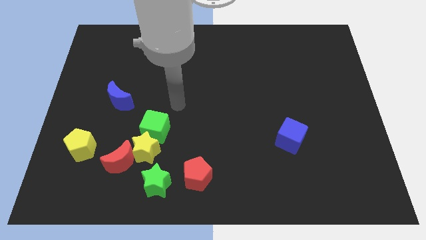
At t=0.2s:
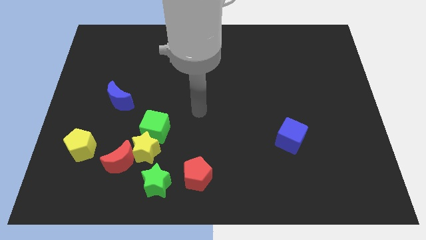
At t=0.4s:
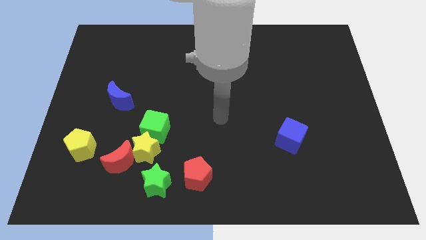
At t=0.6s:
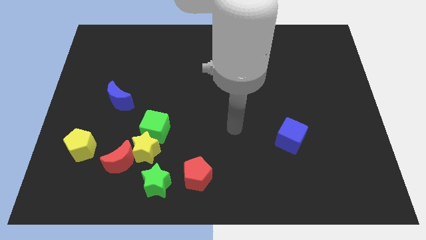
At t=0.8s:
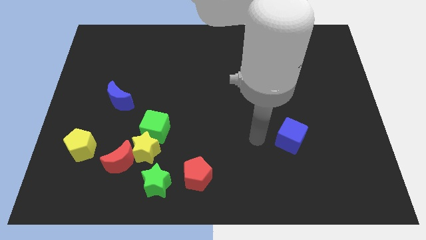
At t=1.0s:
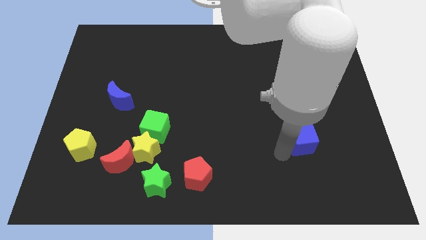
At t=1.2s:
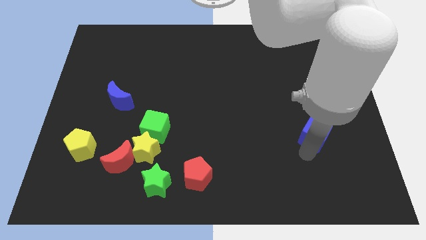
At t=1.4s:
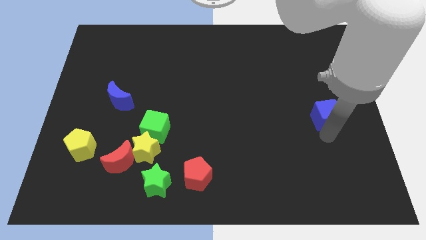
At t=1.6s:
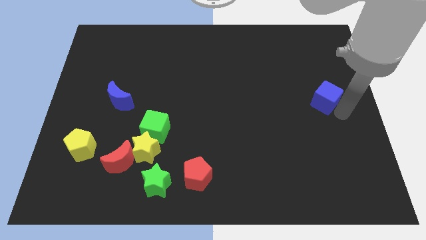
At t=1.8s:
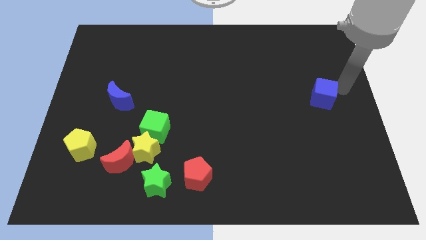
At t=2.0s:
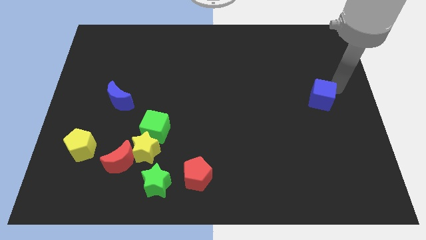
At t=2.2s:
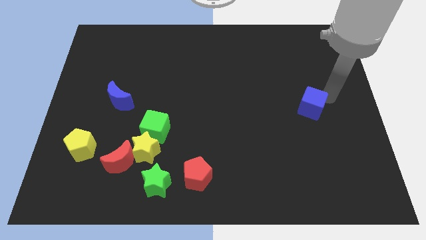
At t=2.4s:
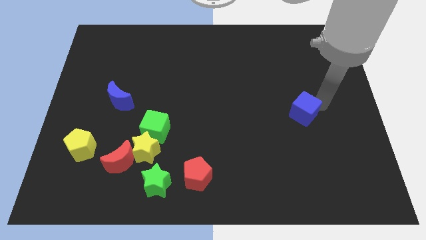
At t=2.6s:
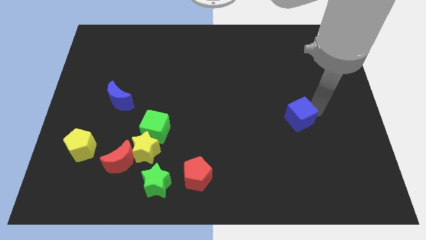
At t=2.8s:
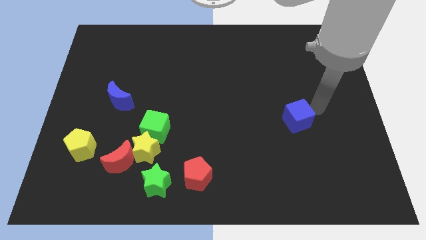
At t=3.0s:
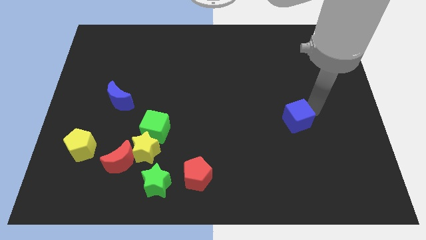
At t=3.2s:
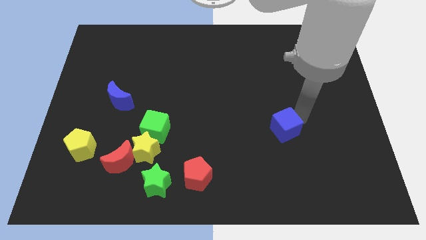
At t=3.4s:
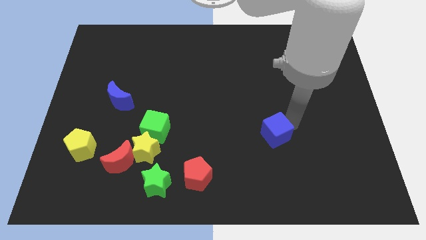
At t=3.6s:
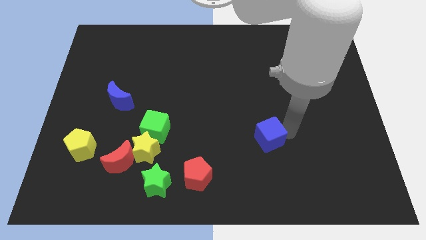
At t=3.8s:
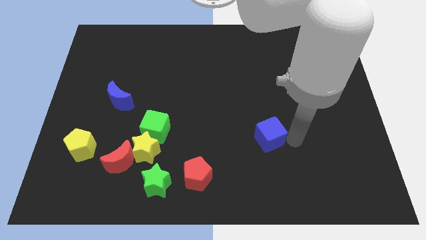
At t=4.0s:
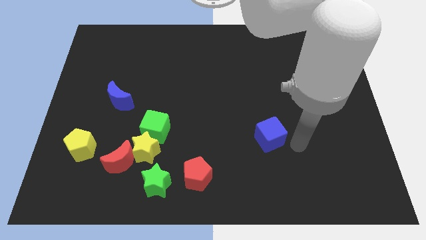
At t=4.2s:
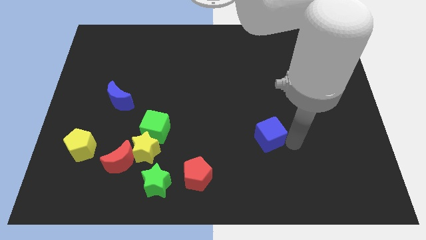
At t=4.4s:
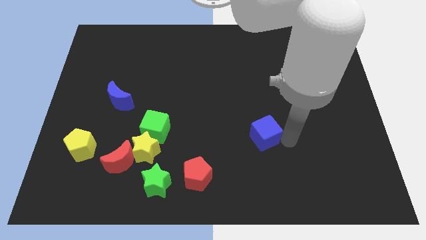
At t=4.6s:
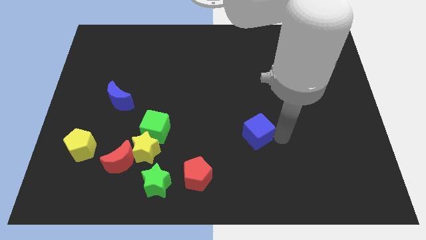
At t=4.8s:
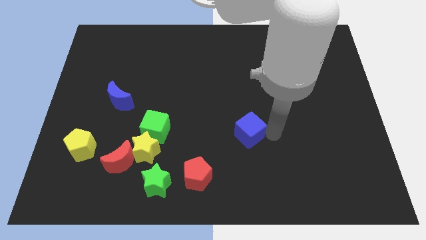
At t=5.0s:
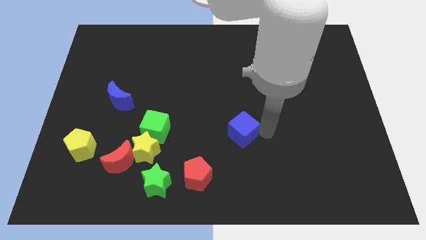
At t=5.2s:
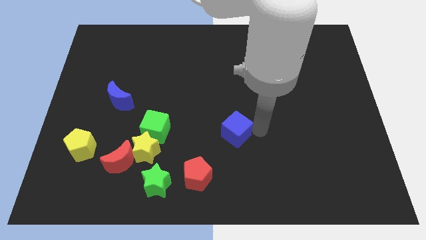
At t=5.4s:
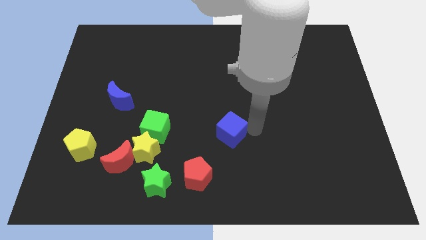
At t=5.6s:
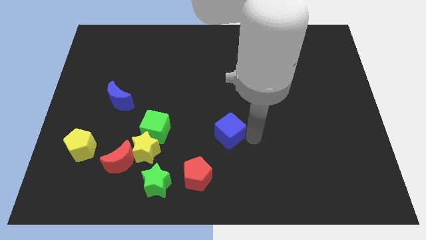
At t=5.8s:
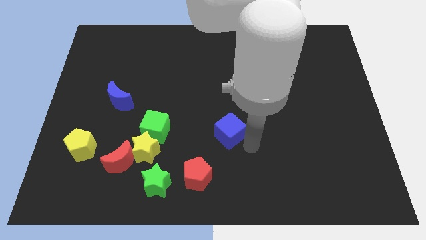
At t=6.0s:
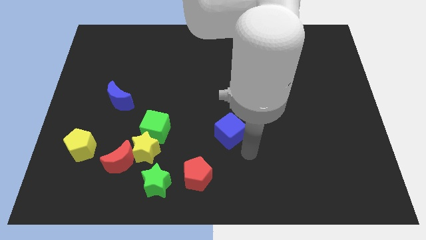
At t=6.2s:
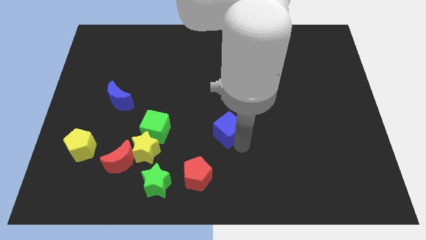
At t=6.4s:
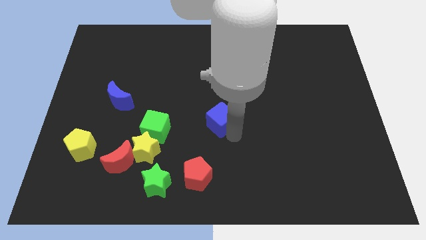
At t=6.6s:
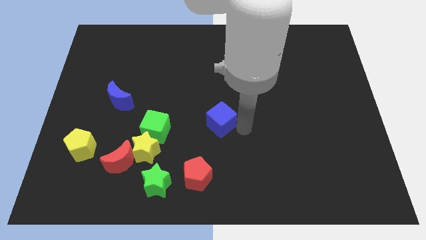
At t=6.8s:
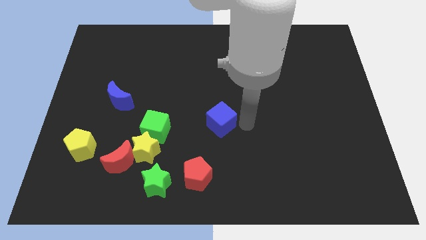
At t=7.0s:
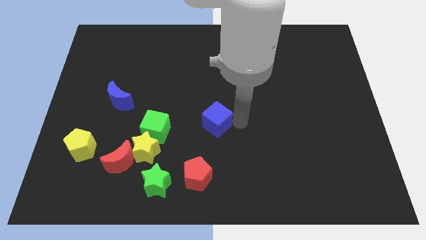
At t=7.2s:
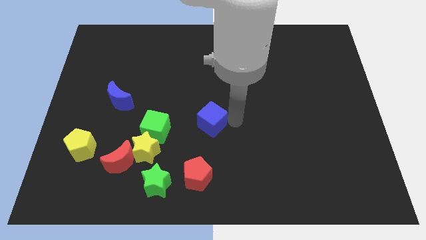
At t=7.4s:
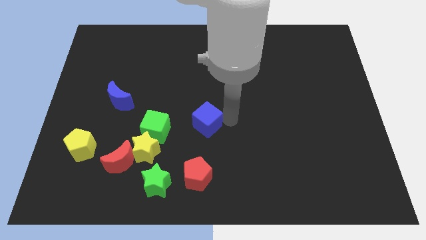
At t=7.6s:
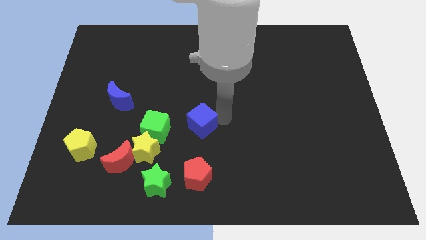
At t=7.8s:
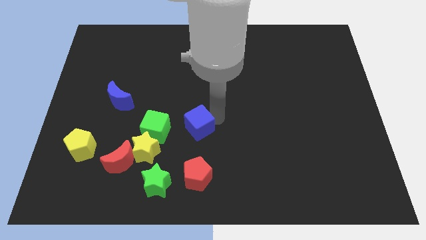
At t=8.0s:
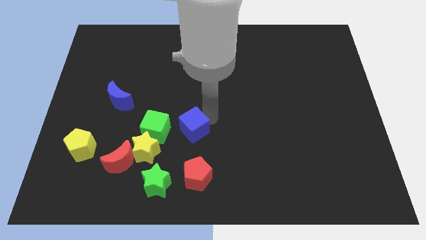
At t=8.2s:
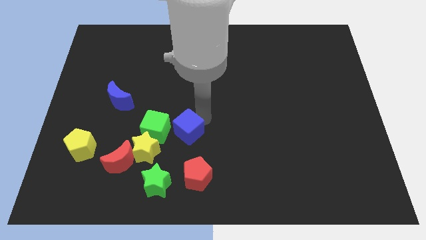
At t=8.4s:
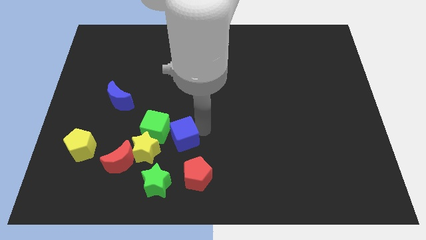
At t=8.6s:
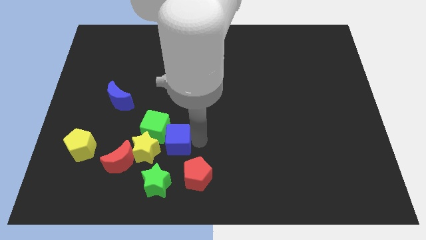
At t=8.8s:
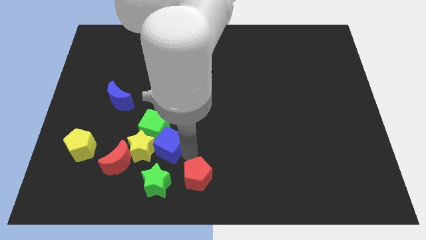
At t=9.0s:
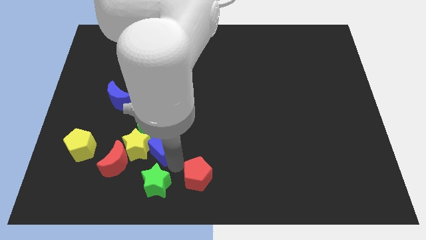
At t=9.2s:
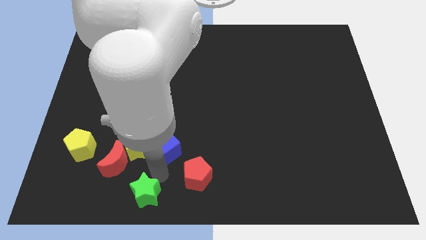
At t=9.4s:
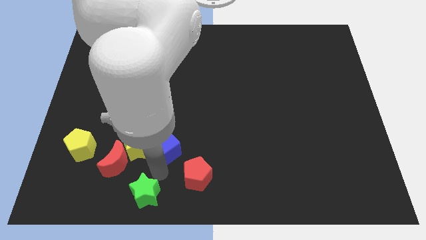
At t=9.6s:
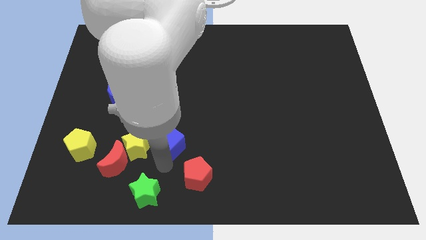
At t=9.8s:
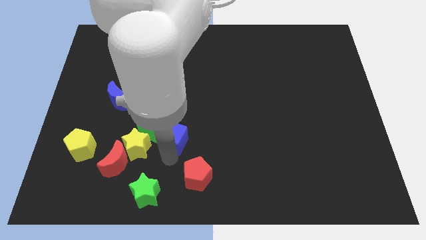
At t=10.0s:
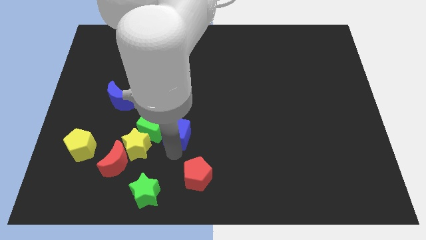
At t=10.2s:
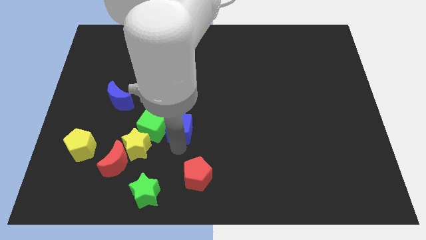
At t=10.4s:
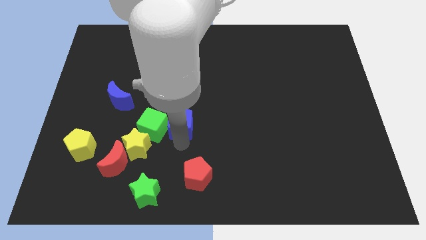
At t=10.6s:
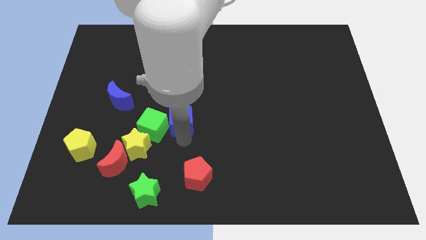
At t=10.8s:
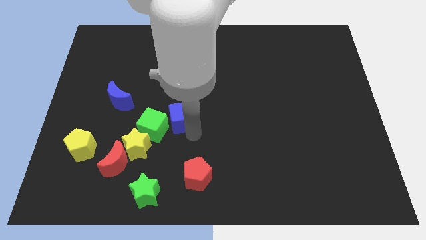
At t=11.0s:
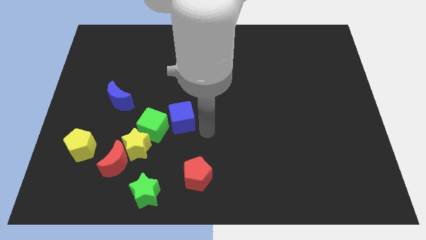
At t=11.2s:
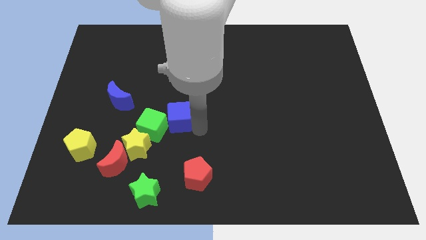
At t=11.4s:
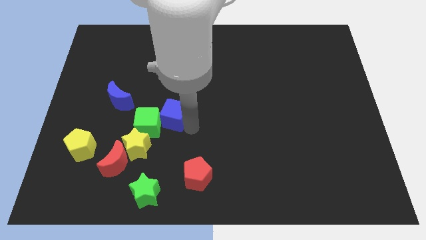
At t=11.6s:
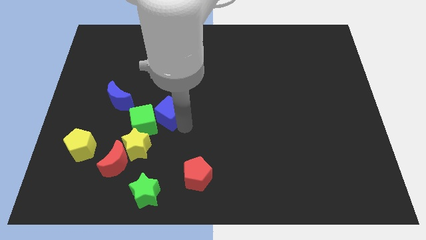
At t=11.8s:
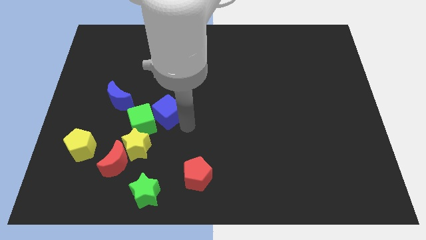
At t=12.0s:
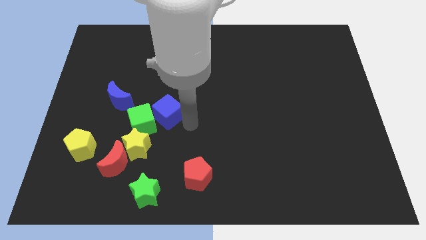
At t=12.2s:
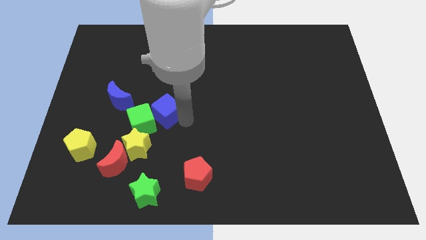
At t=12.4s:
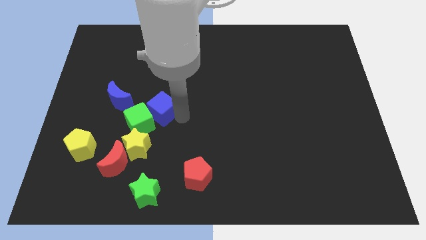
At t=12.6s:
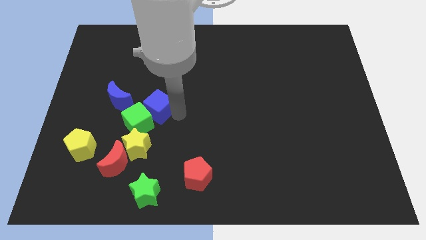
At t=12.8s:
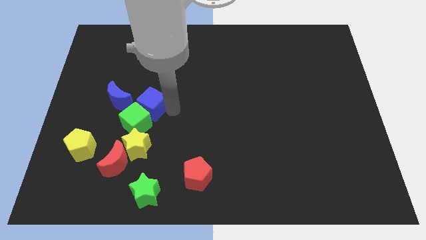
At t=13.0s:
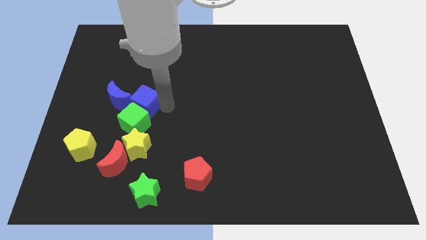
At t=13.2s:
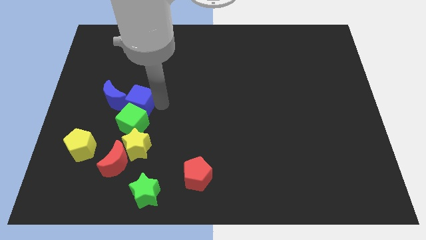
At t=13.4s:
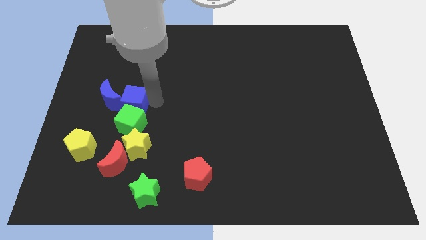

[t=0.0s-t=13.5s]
push the blue cube towards the blue moon

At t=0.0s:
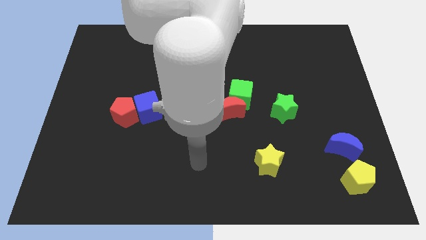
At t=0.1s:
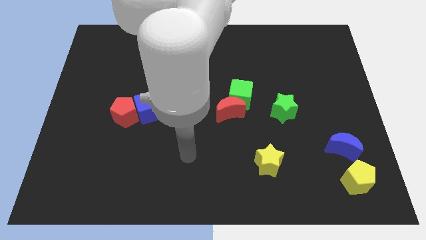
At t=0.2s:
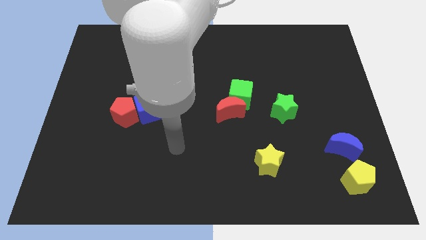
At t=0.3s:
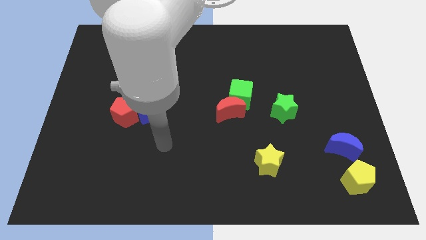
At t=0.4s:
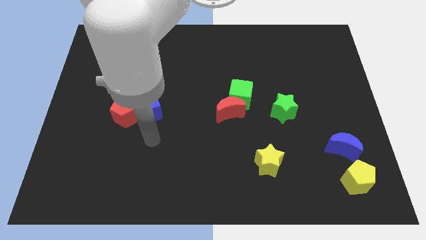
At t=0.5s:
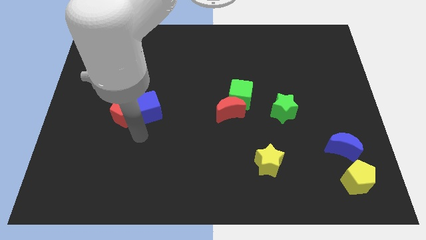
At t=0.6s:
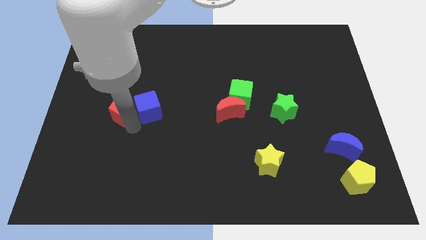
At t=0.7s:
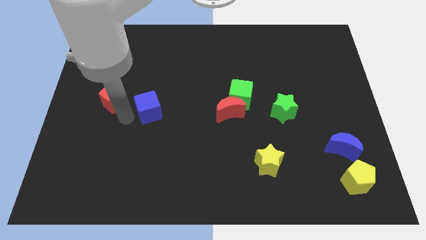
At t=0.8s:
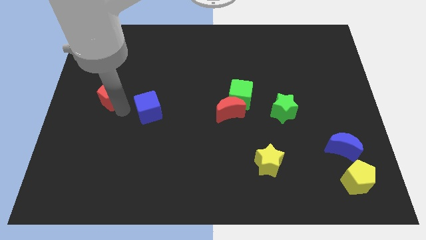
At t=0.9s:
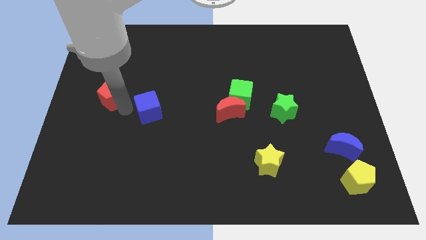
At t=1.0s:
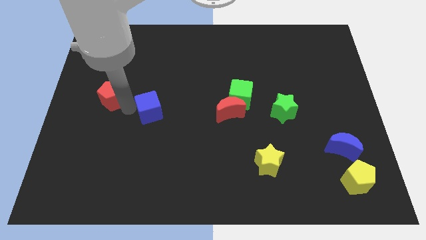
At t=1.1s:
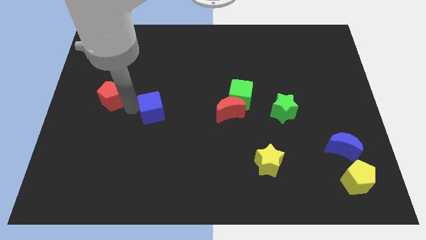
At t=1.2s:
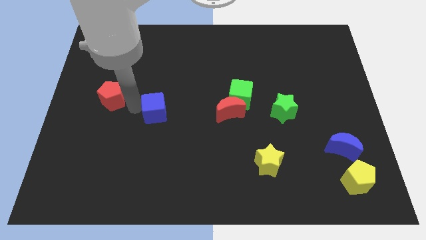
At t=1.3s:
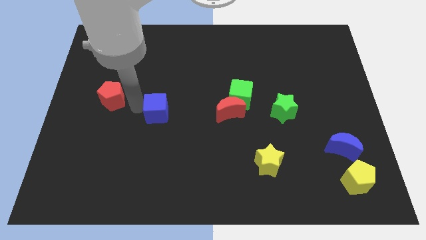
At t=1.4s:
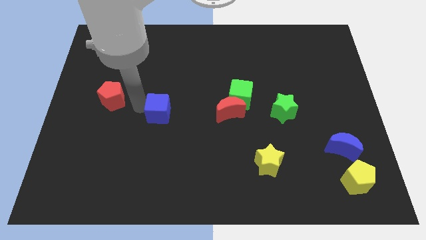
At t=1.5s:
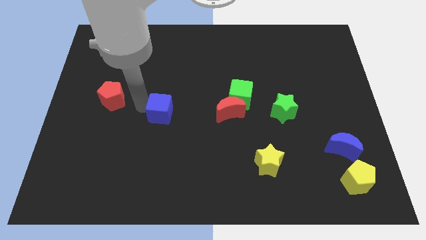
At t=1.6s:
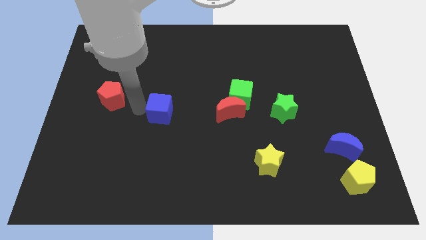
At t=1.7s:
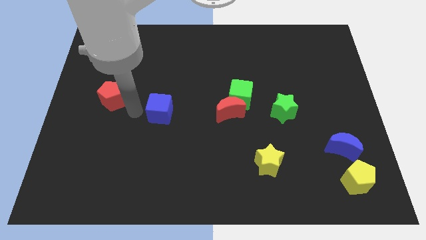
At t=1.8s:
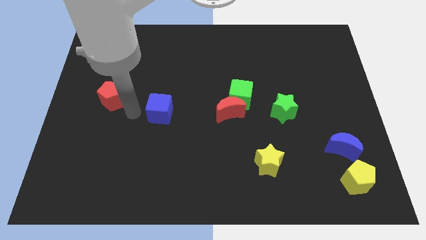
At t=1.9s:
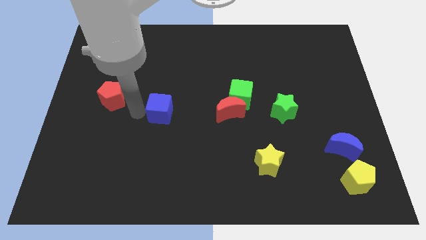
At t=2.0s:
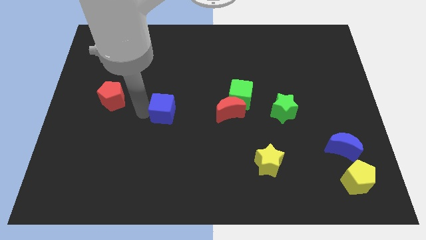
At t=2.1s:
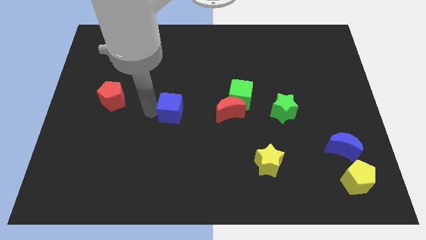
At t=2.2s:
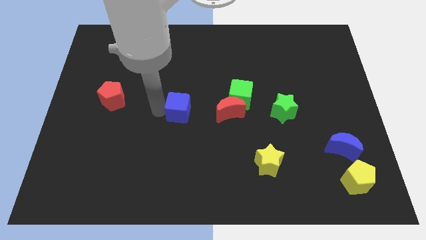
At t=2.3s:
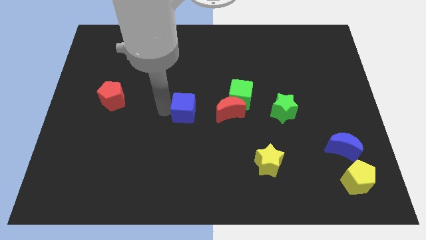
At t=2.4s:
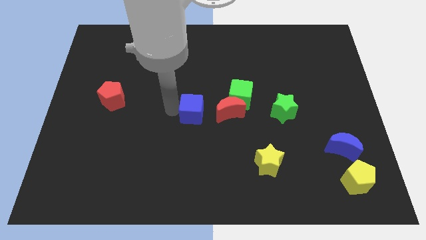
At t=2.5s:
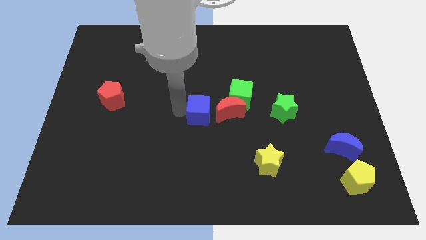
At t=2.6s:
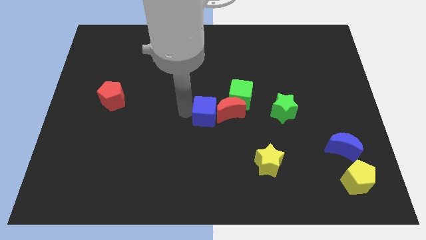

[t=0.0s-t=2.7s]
push the blue cube to the red moon
